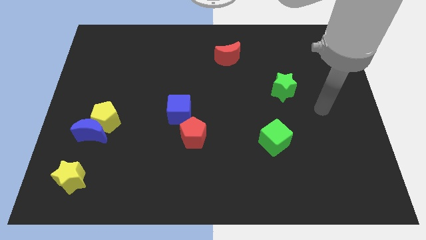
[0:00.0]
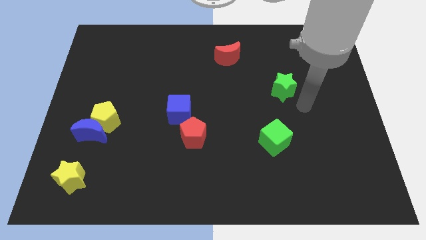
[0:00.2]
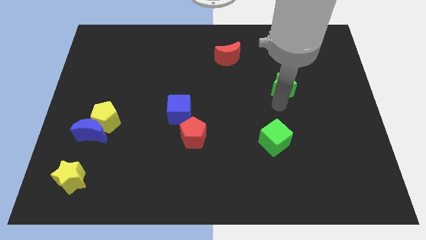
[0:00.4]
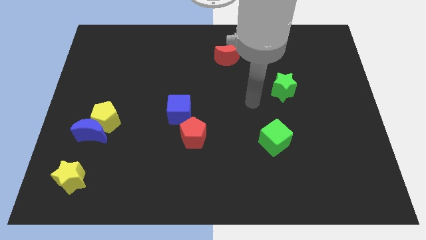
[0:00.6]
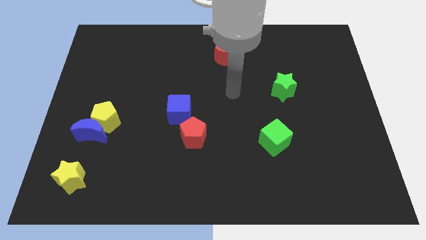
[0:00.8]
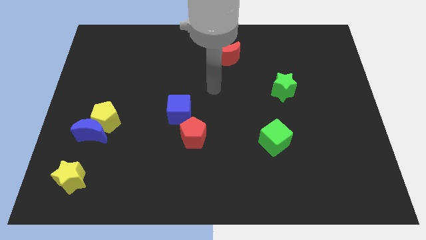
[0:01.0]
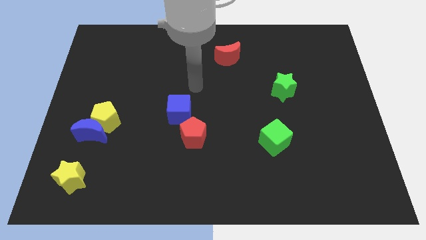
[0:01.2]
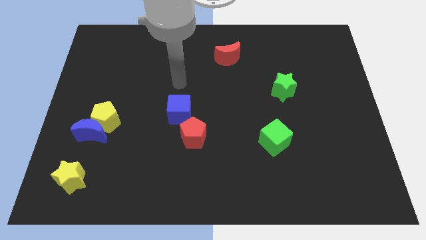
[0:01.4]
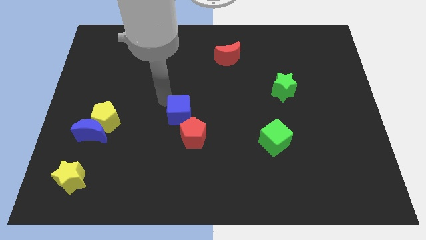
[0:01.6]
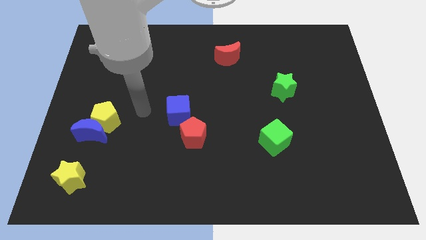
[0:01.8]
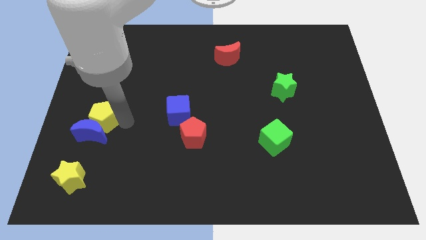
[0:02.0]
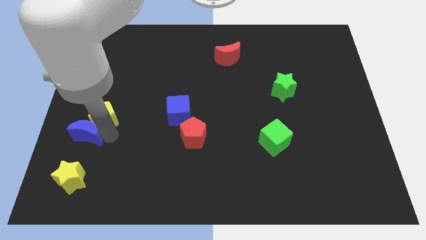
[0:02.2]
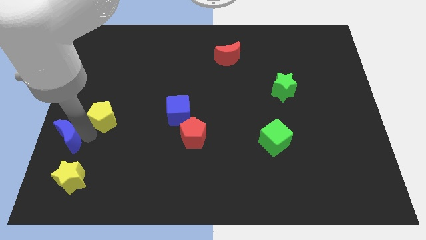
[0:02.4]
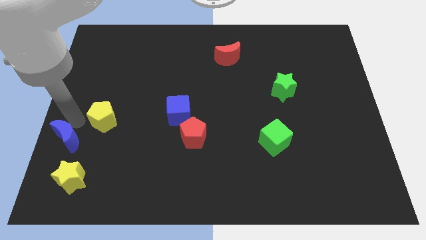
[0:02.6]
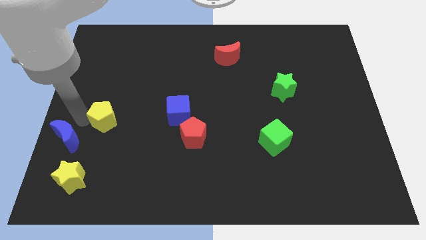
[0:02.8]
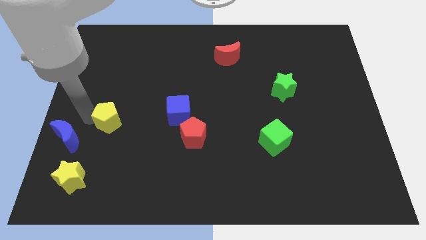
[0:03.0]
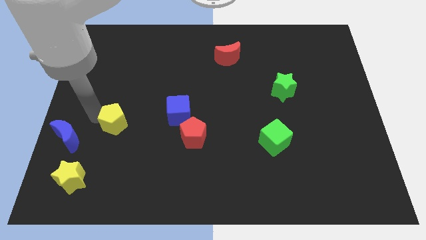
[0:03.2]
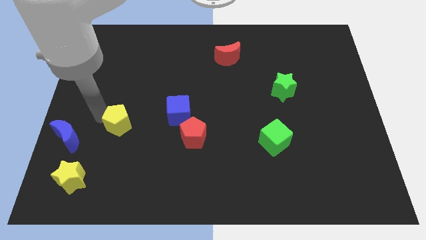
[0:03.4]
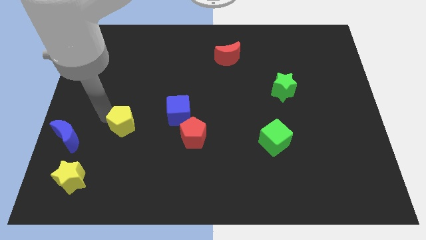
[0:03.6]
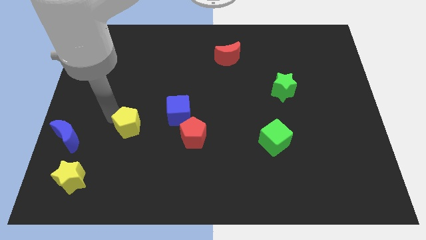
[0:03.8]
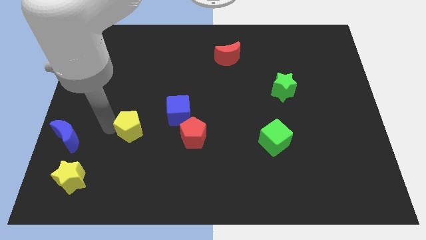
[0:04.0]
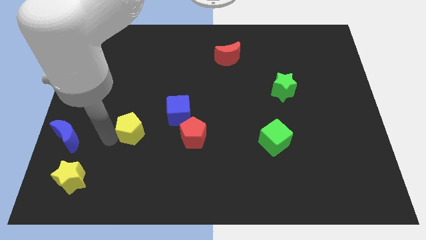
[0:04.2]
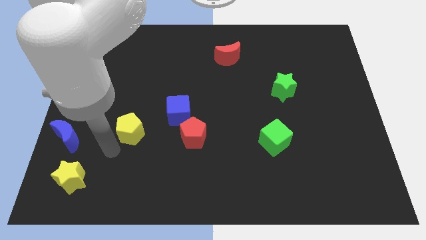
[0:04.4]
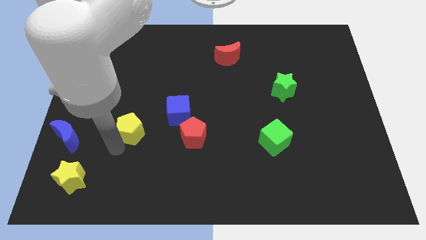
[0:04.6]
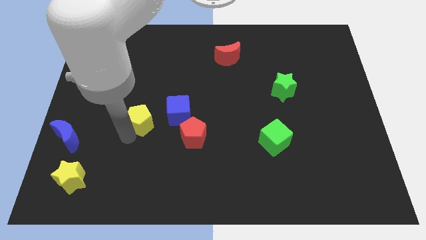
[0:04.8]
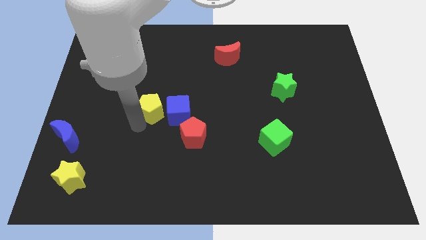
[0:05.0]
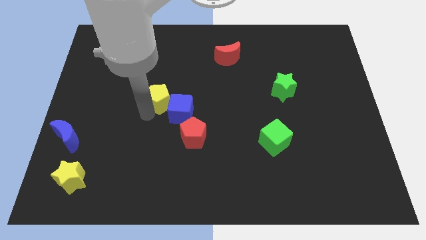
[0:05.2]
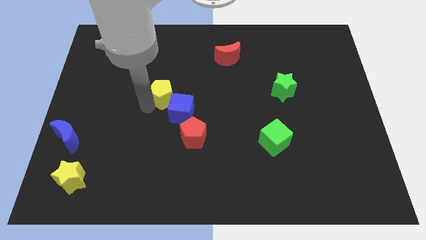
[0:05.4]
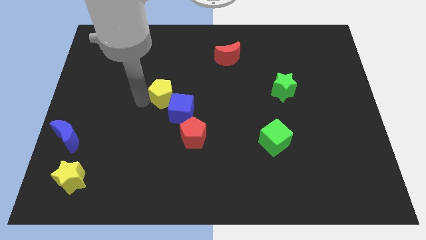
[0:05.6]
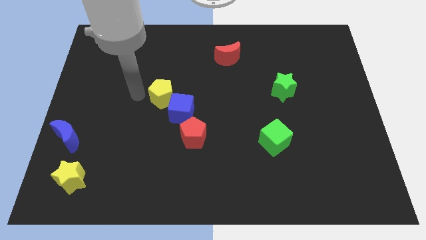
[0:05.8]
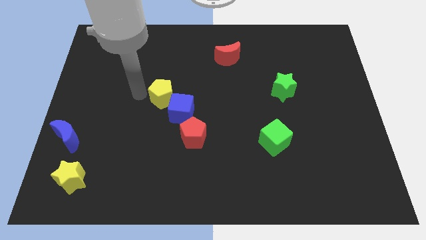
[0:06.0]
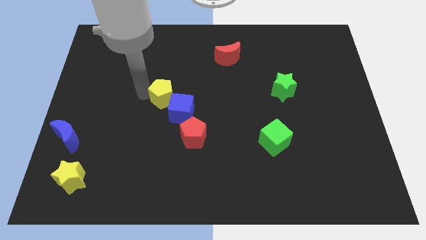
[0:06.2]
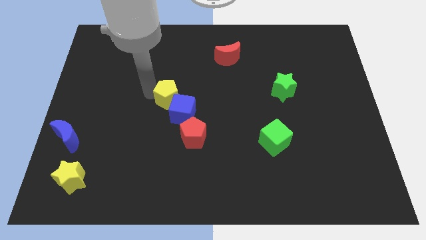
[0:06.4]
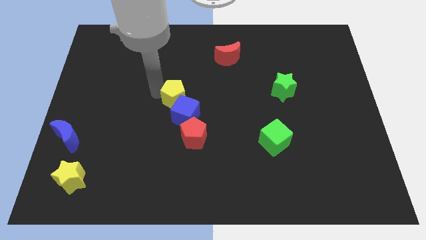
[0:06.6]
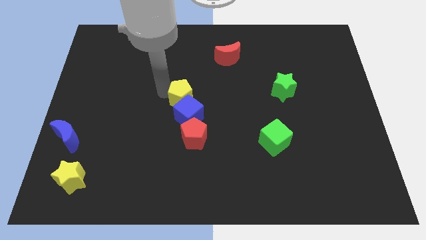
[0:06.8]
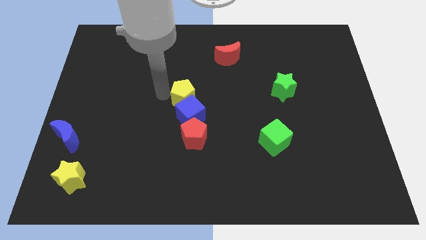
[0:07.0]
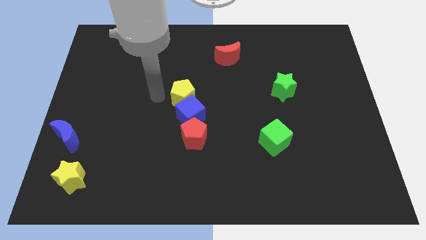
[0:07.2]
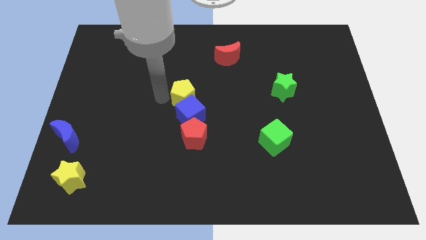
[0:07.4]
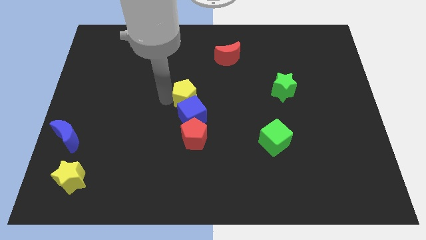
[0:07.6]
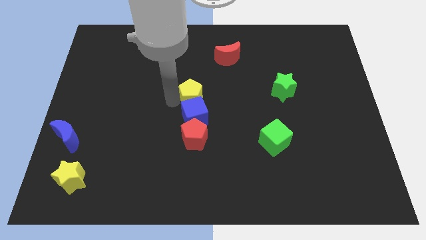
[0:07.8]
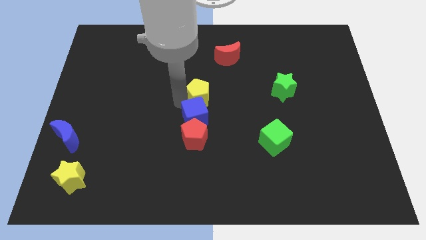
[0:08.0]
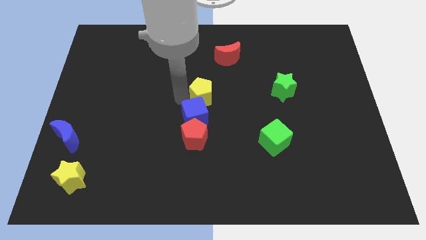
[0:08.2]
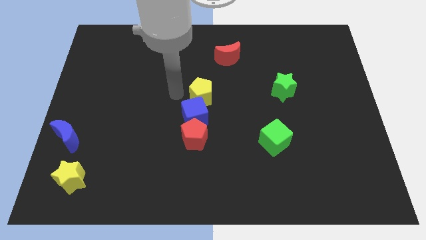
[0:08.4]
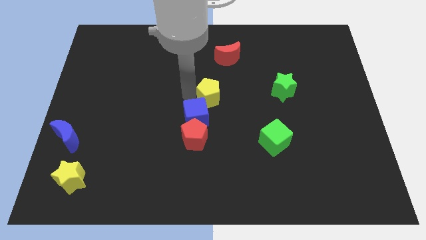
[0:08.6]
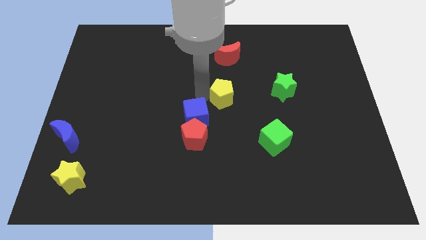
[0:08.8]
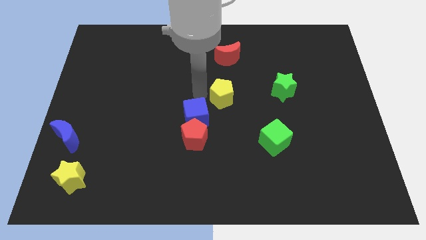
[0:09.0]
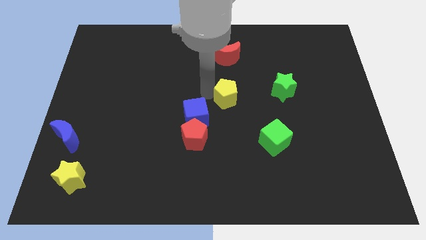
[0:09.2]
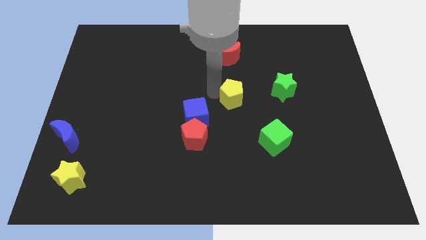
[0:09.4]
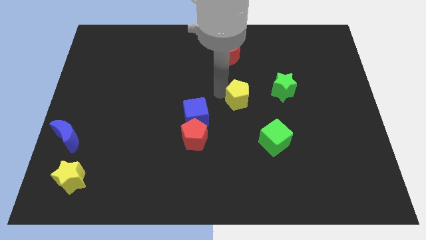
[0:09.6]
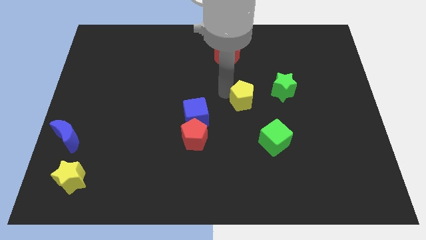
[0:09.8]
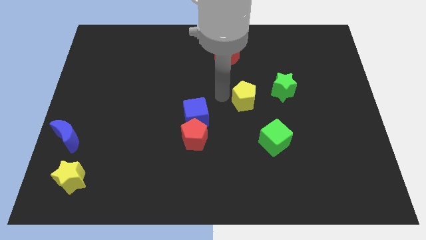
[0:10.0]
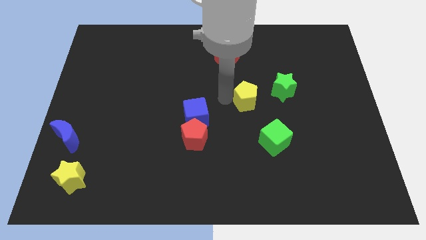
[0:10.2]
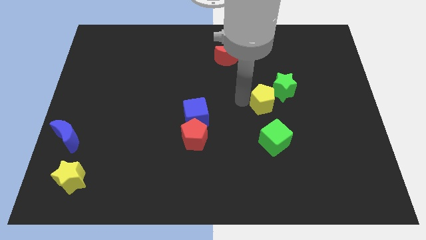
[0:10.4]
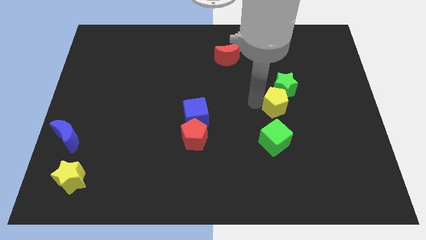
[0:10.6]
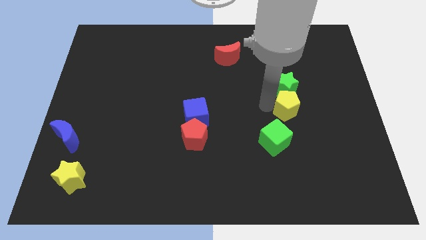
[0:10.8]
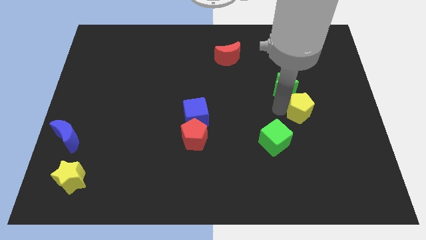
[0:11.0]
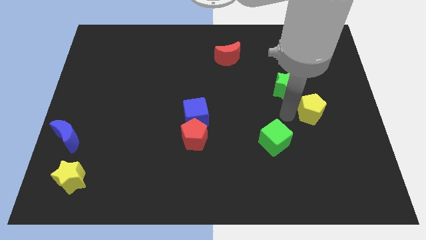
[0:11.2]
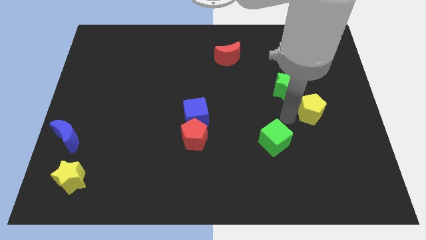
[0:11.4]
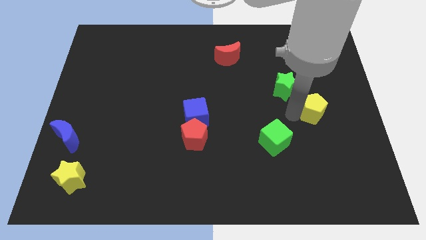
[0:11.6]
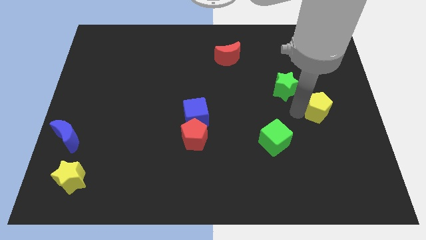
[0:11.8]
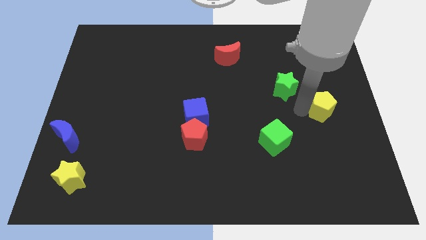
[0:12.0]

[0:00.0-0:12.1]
push the yellow pentagon to the center right

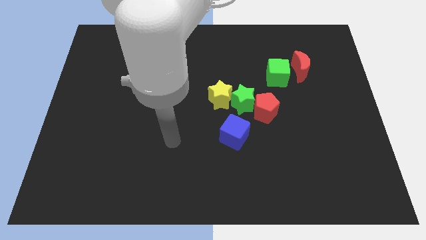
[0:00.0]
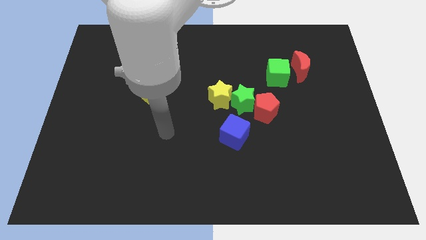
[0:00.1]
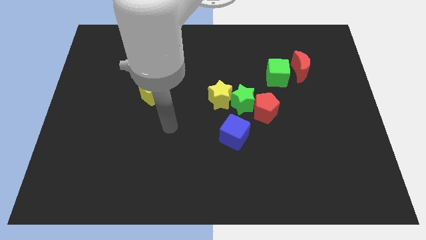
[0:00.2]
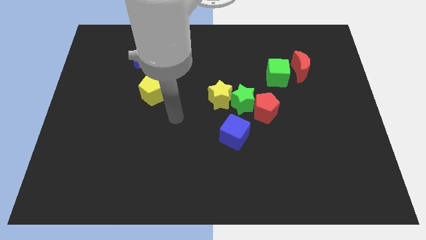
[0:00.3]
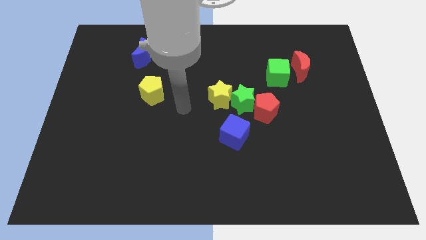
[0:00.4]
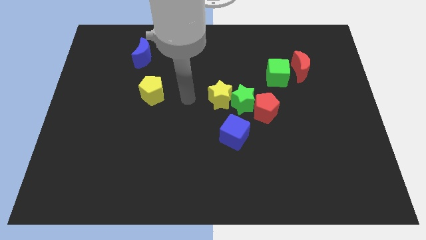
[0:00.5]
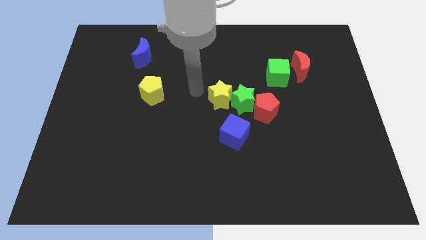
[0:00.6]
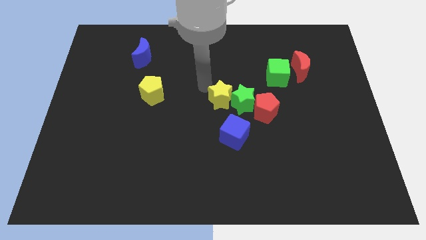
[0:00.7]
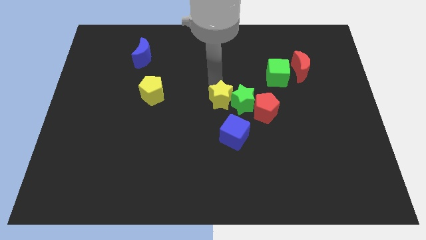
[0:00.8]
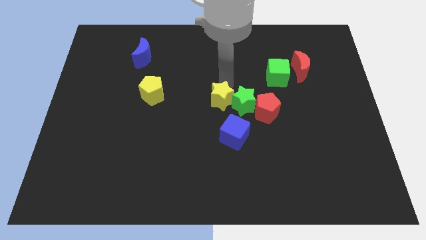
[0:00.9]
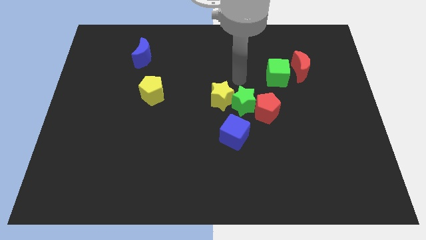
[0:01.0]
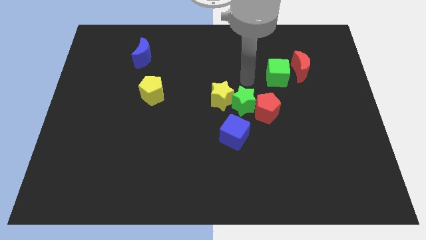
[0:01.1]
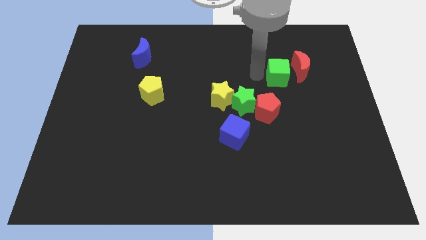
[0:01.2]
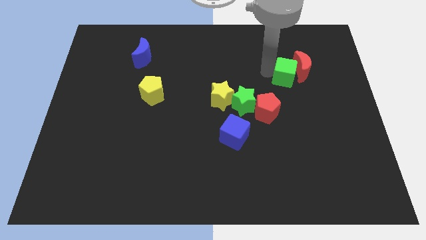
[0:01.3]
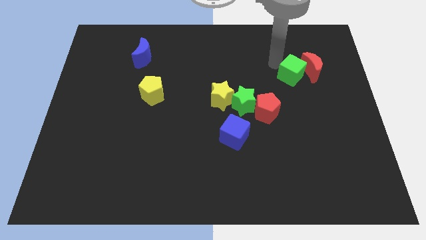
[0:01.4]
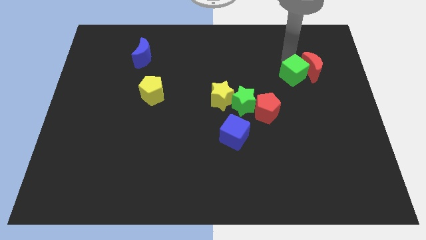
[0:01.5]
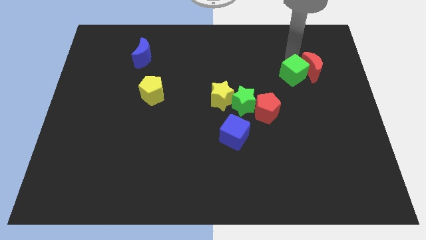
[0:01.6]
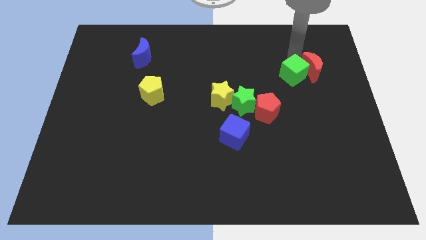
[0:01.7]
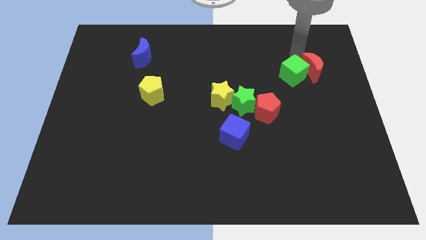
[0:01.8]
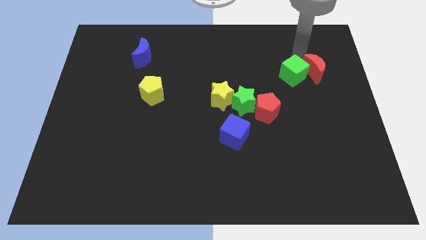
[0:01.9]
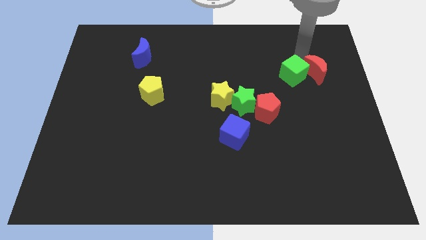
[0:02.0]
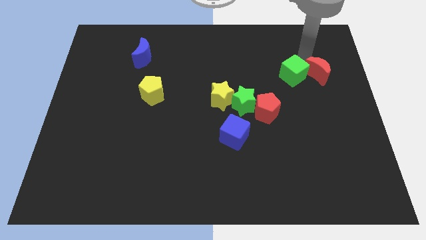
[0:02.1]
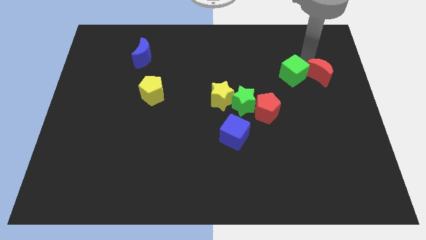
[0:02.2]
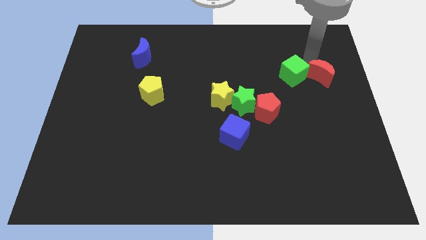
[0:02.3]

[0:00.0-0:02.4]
move the red moon to the center right
